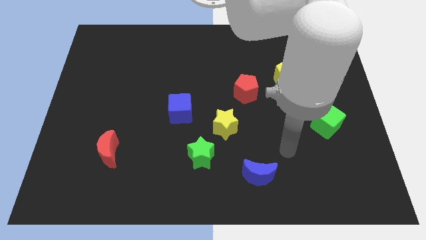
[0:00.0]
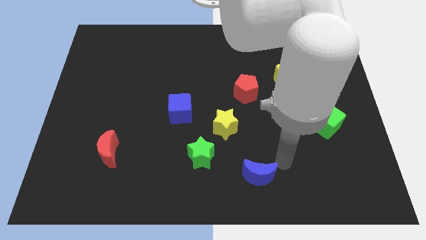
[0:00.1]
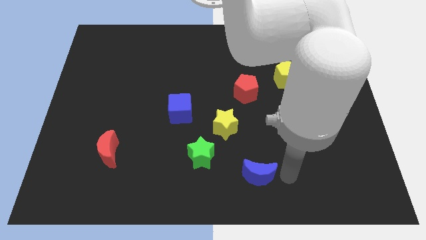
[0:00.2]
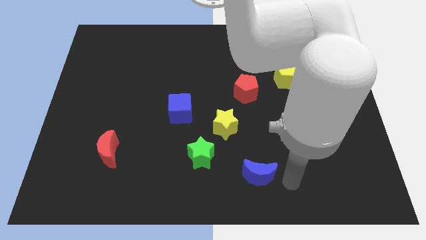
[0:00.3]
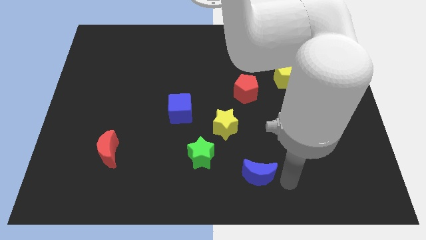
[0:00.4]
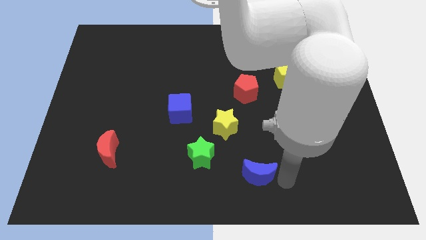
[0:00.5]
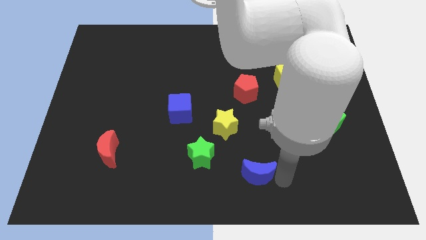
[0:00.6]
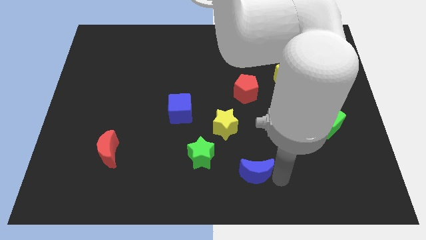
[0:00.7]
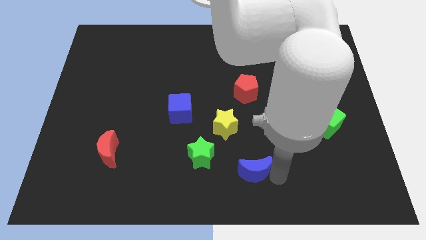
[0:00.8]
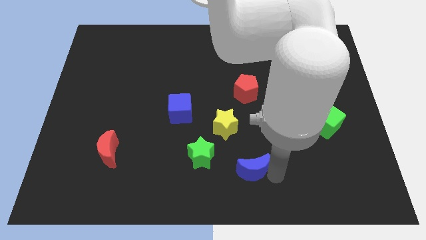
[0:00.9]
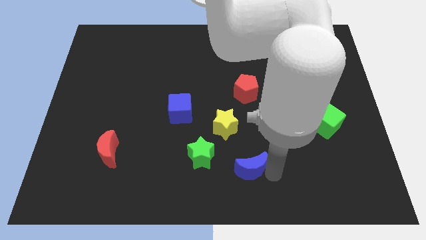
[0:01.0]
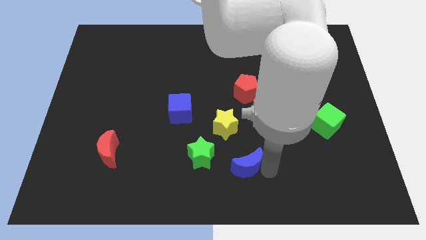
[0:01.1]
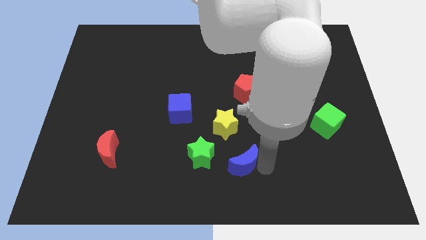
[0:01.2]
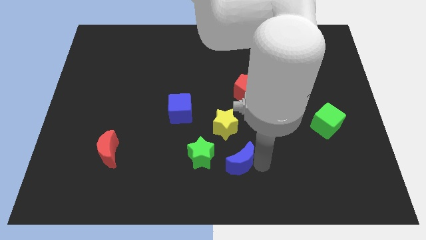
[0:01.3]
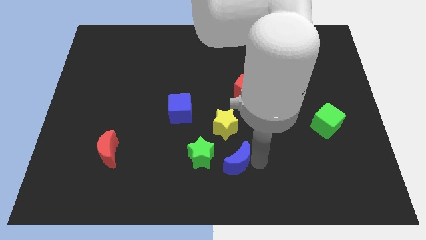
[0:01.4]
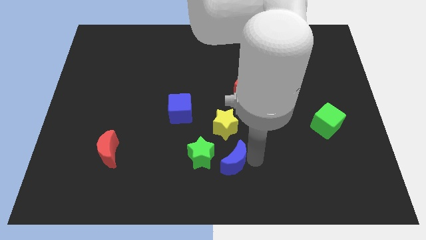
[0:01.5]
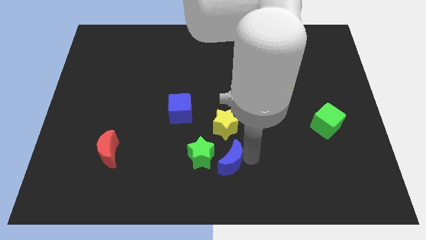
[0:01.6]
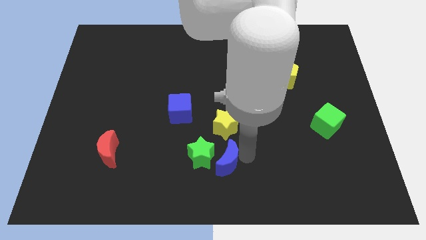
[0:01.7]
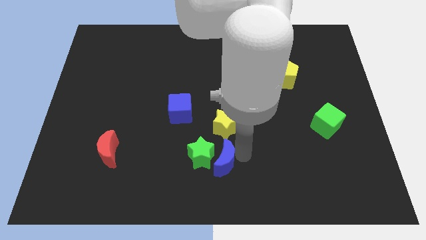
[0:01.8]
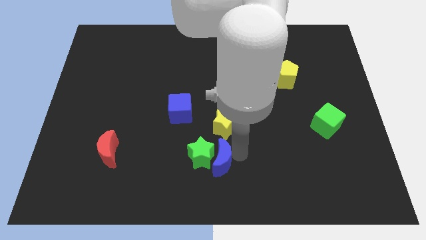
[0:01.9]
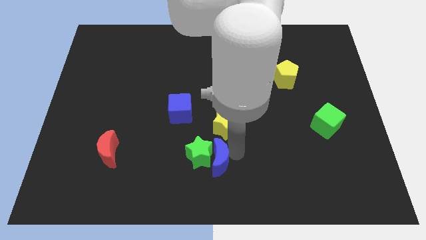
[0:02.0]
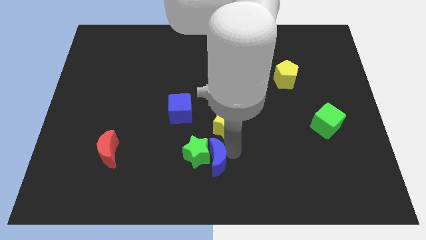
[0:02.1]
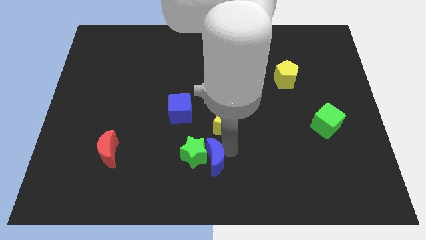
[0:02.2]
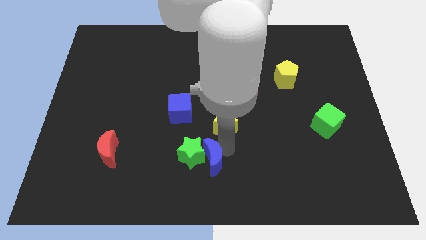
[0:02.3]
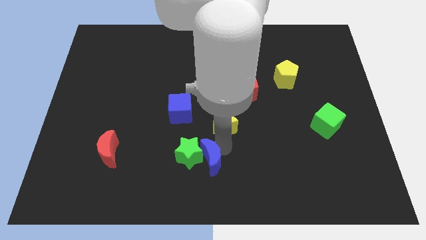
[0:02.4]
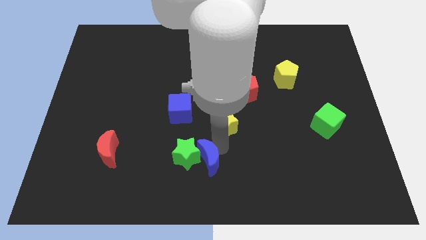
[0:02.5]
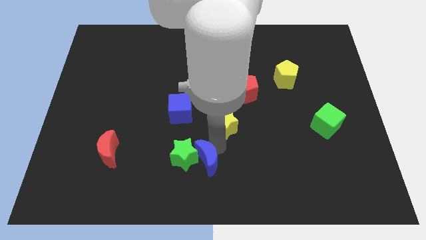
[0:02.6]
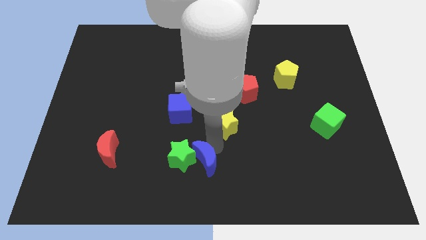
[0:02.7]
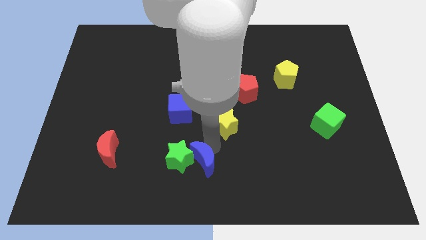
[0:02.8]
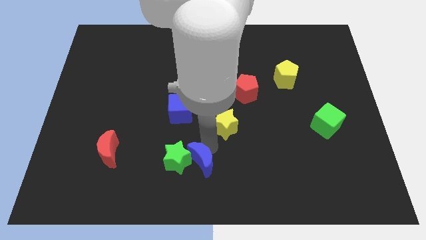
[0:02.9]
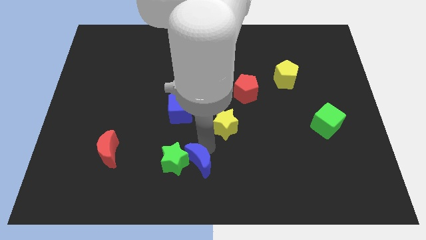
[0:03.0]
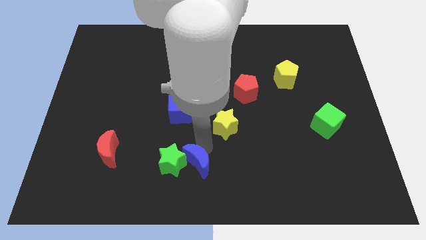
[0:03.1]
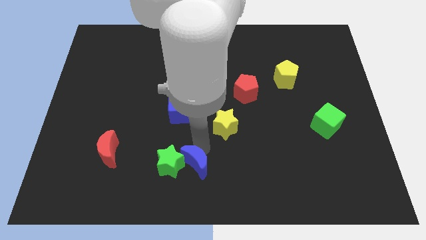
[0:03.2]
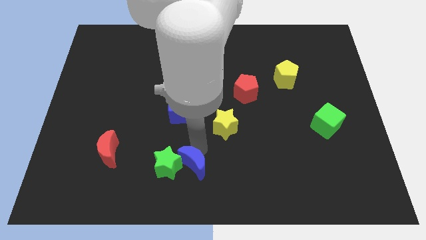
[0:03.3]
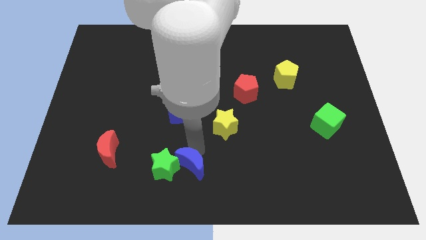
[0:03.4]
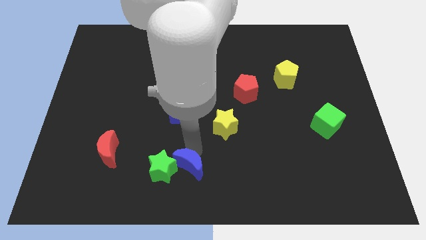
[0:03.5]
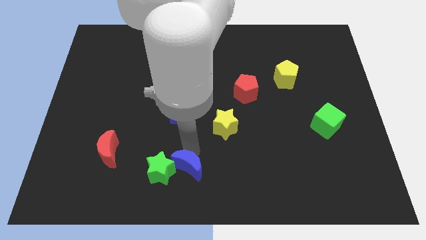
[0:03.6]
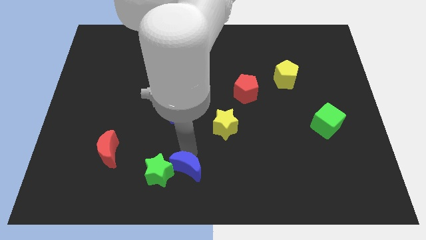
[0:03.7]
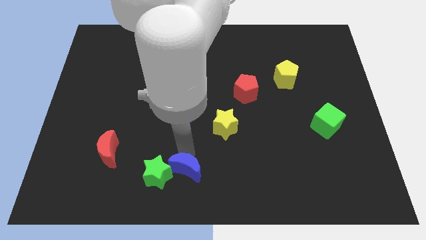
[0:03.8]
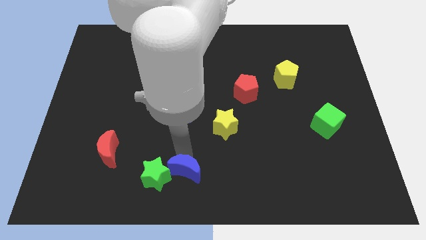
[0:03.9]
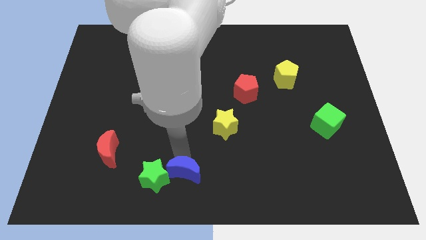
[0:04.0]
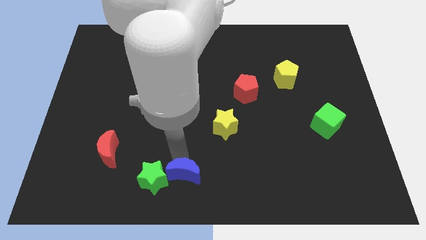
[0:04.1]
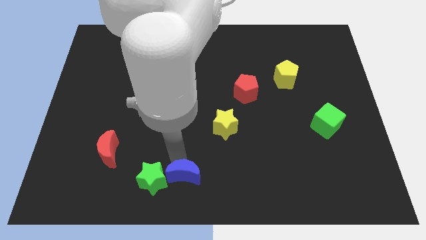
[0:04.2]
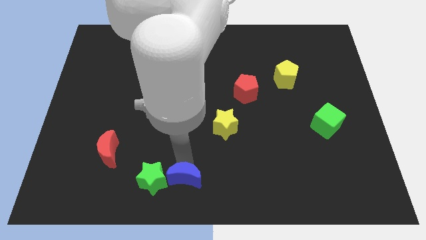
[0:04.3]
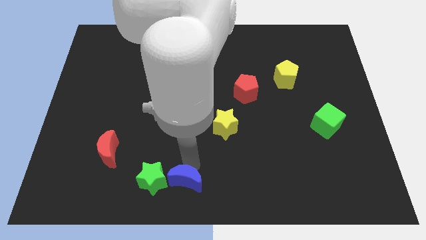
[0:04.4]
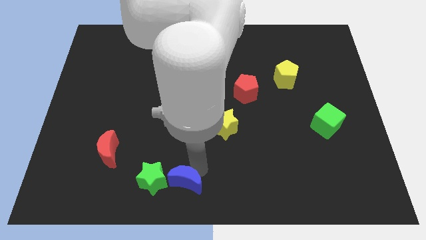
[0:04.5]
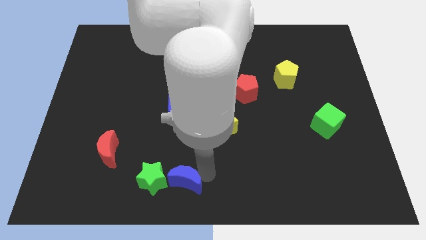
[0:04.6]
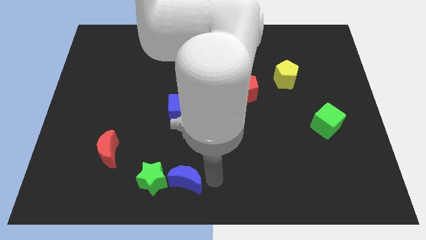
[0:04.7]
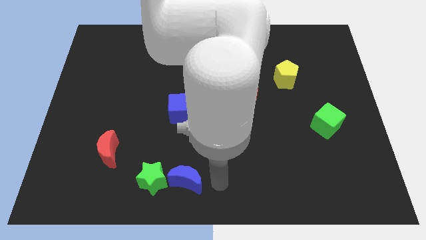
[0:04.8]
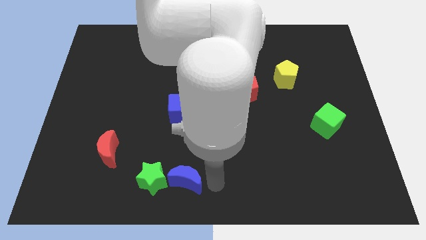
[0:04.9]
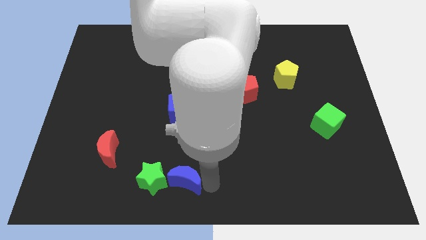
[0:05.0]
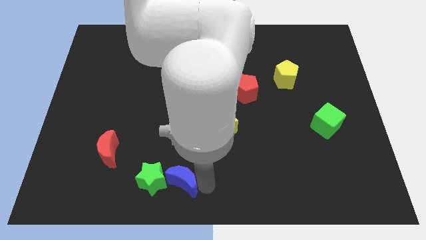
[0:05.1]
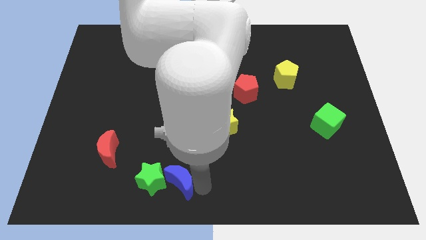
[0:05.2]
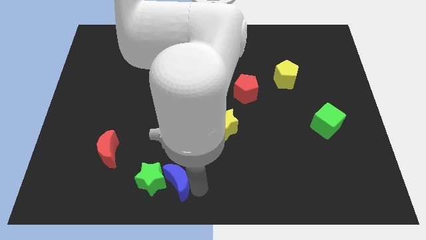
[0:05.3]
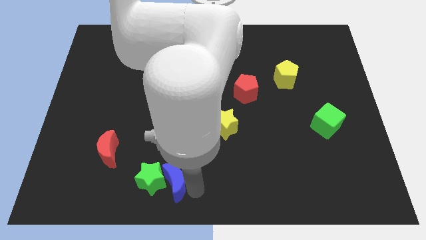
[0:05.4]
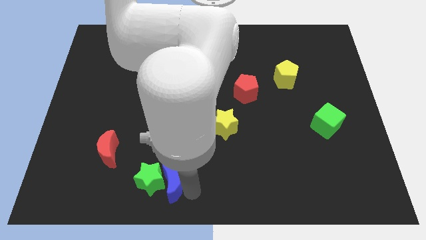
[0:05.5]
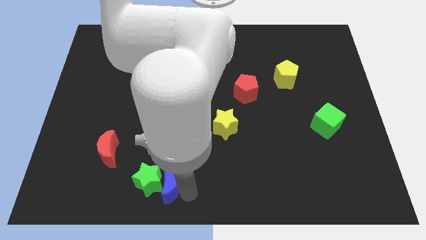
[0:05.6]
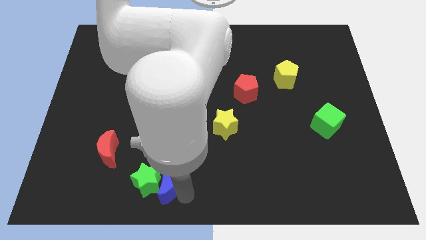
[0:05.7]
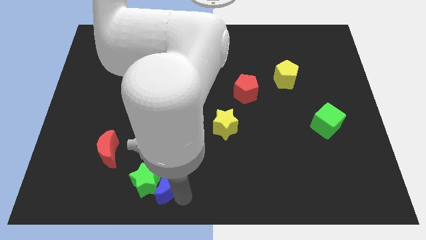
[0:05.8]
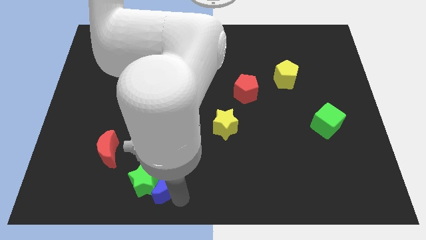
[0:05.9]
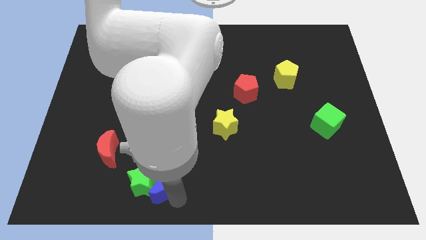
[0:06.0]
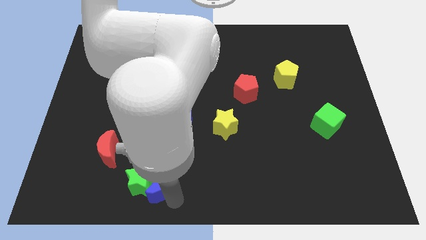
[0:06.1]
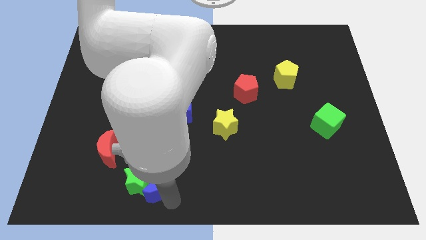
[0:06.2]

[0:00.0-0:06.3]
slide the blue moon left

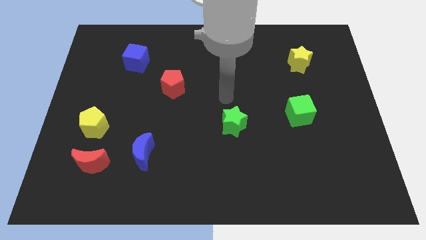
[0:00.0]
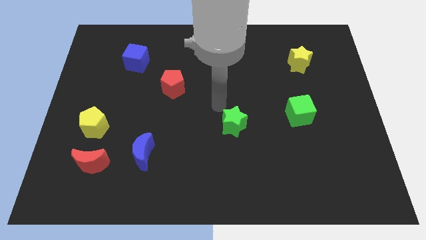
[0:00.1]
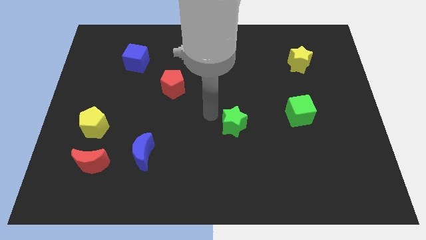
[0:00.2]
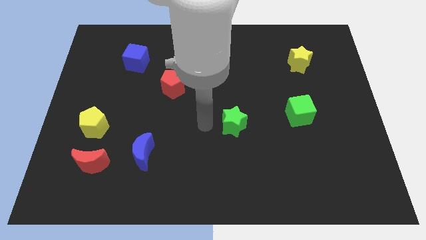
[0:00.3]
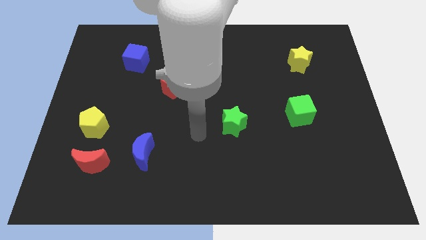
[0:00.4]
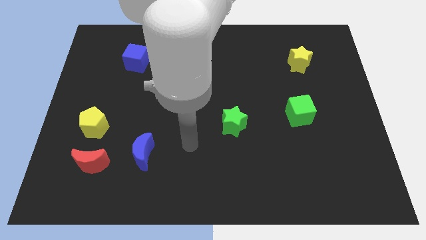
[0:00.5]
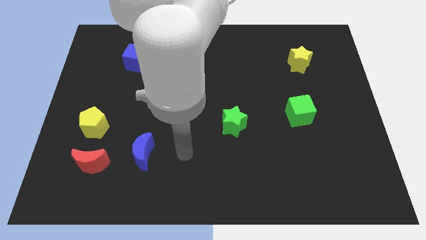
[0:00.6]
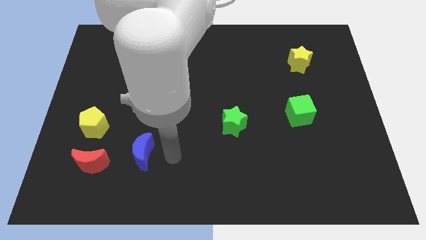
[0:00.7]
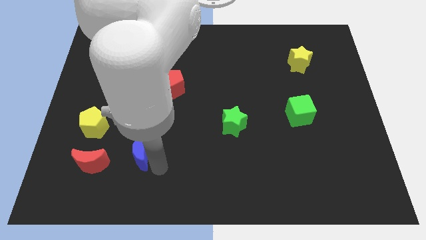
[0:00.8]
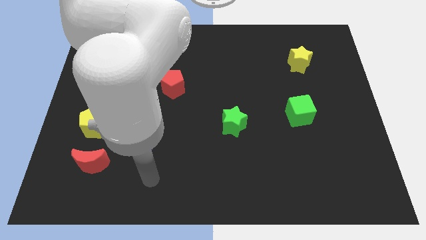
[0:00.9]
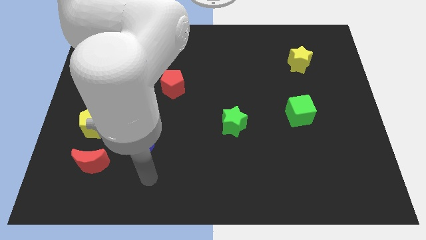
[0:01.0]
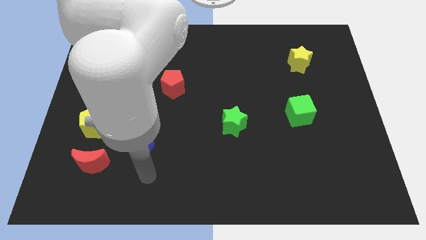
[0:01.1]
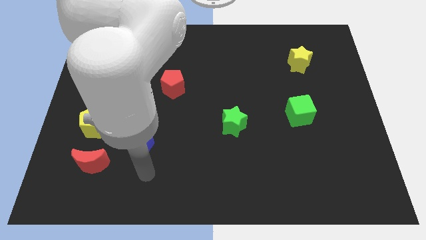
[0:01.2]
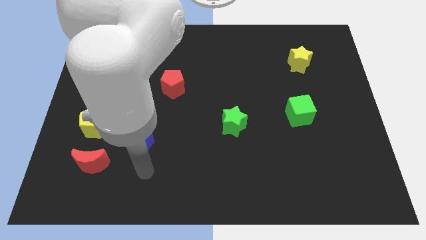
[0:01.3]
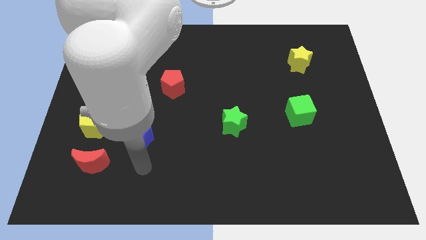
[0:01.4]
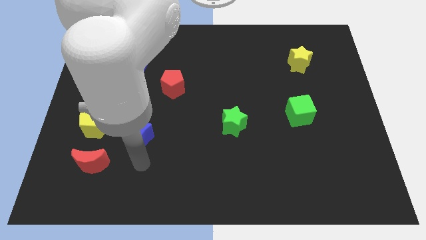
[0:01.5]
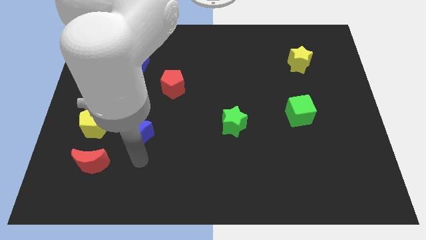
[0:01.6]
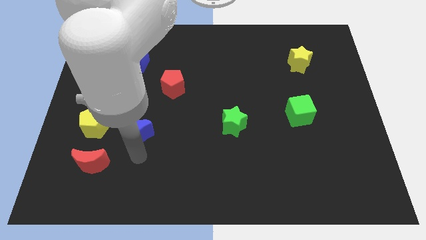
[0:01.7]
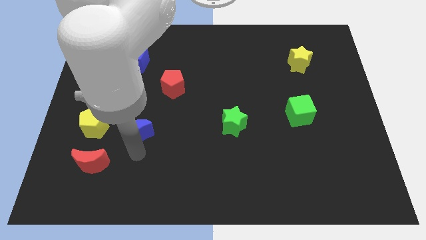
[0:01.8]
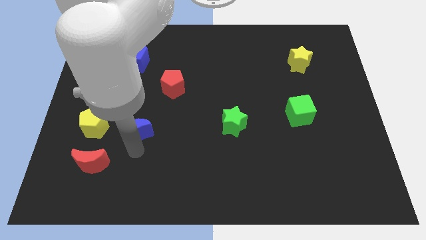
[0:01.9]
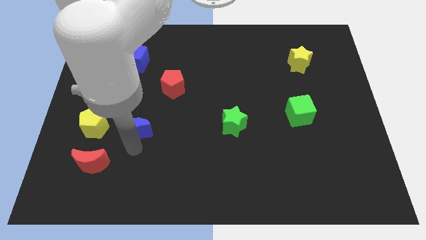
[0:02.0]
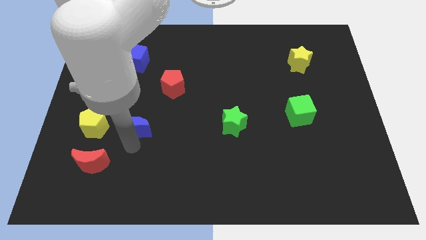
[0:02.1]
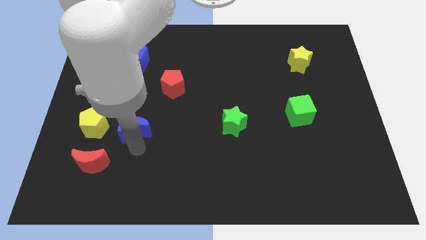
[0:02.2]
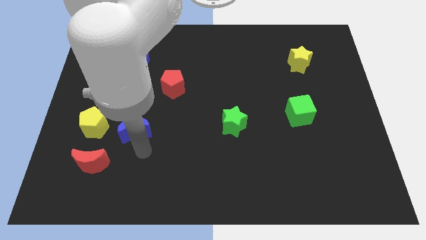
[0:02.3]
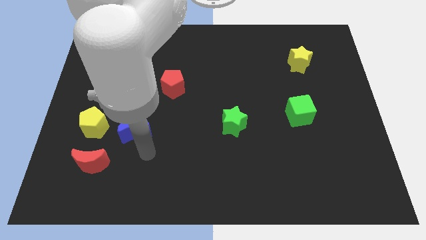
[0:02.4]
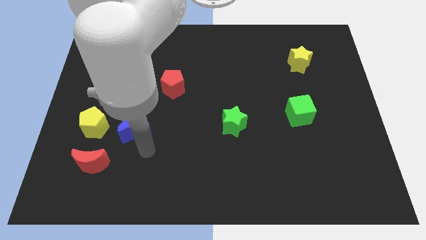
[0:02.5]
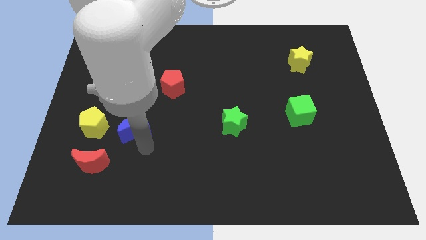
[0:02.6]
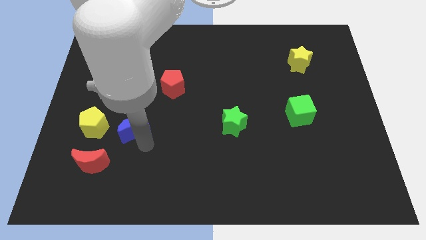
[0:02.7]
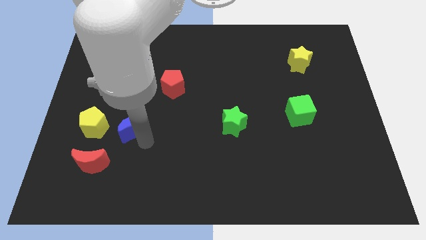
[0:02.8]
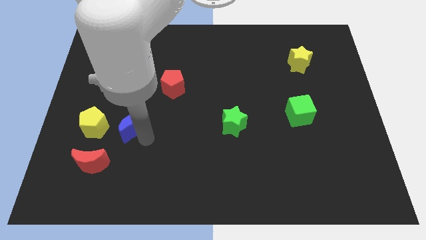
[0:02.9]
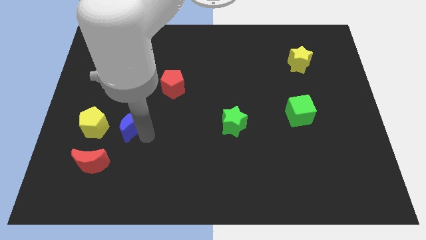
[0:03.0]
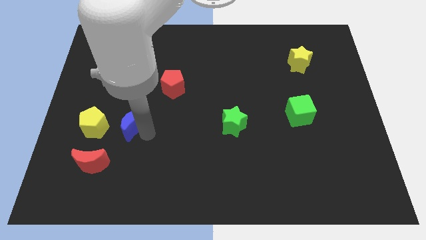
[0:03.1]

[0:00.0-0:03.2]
move the blue moon a bit up and then to the left
